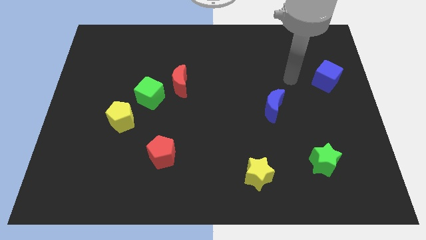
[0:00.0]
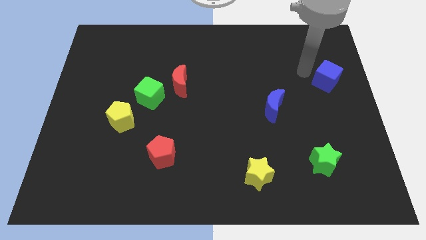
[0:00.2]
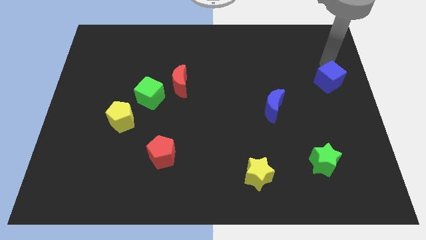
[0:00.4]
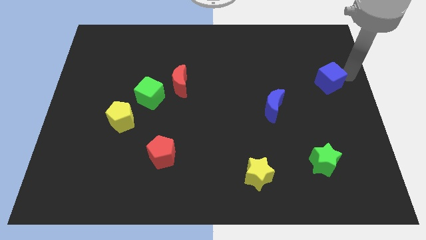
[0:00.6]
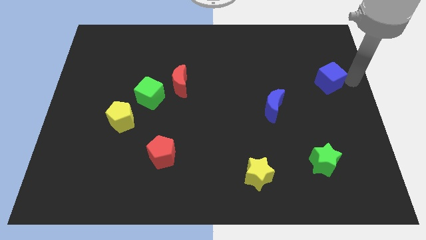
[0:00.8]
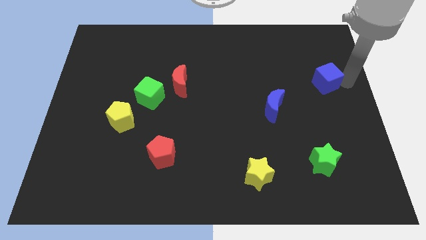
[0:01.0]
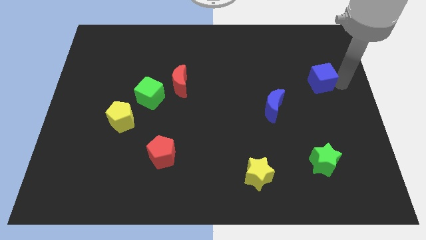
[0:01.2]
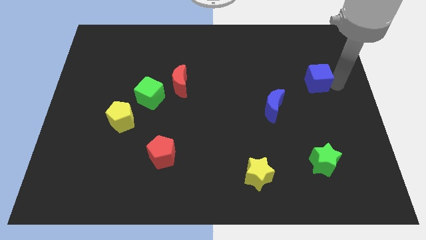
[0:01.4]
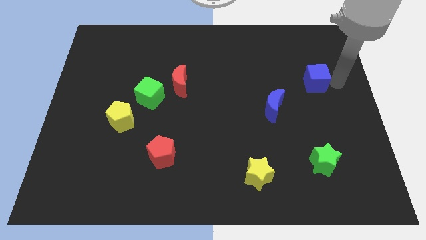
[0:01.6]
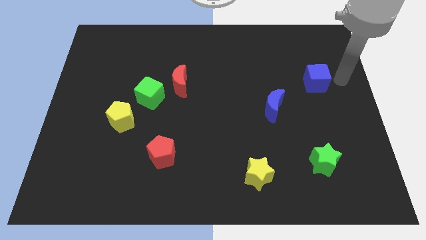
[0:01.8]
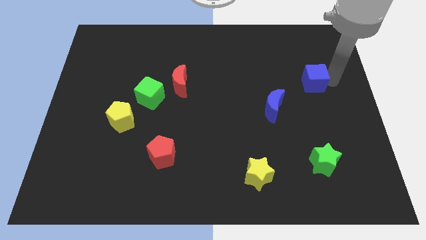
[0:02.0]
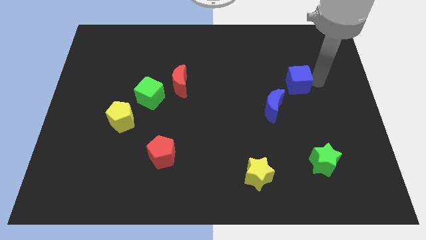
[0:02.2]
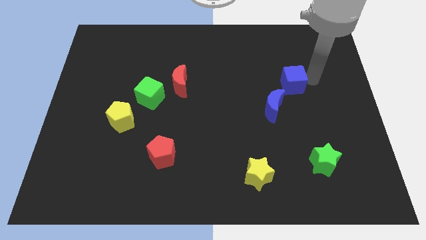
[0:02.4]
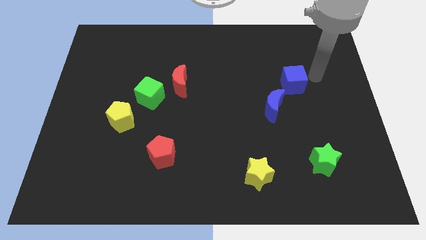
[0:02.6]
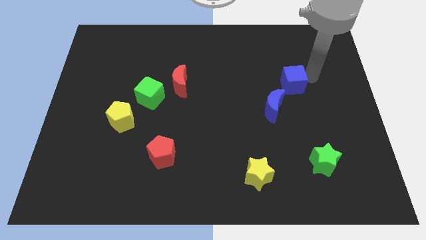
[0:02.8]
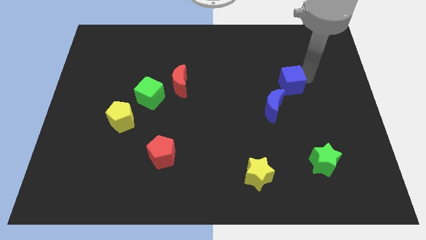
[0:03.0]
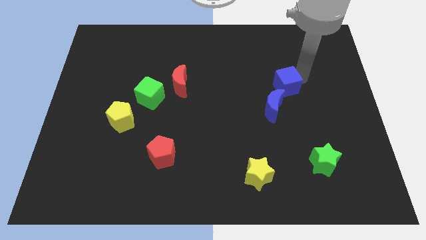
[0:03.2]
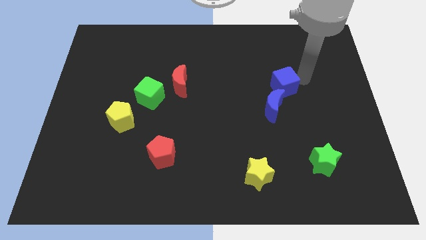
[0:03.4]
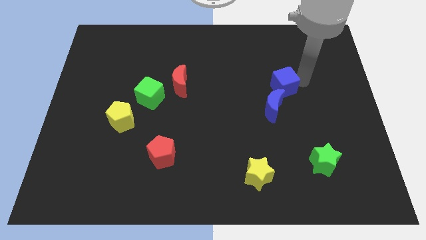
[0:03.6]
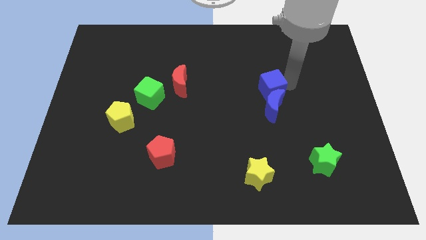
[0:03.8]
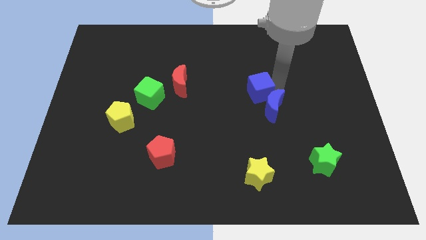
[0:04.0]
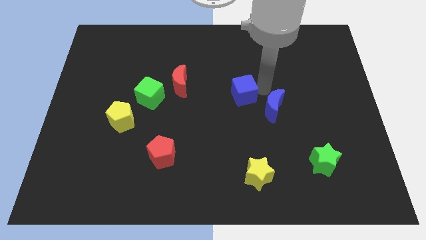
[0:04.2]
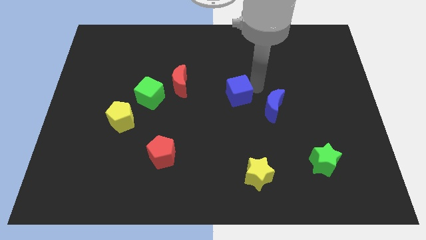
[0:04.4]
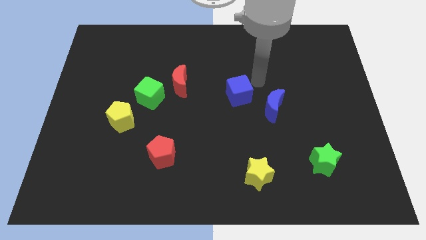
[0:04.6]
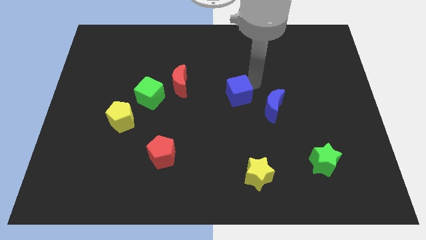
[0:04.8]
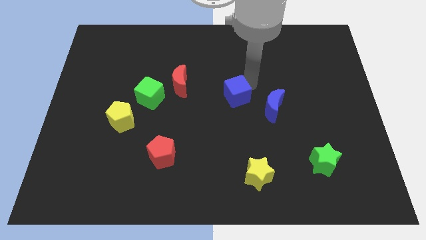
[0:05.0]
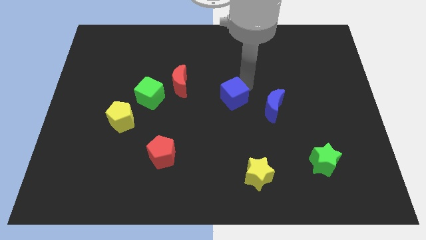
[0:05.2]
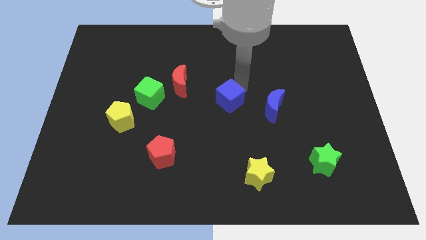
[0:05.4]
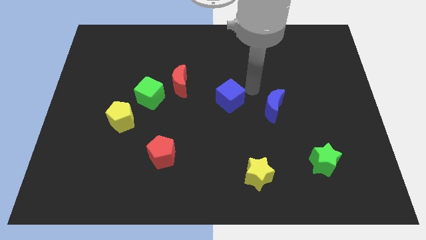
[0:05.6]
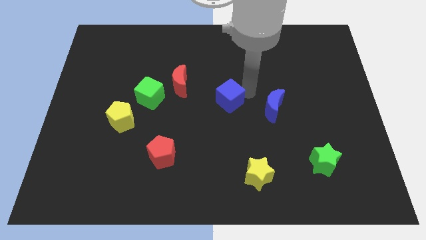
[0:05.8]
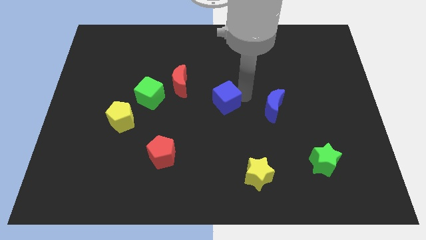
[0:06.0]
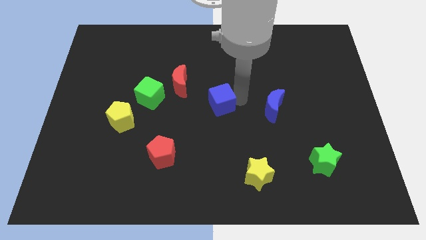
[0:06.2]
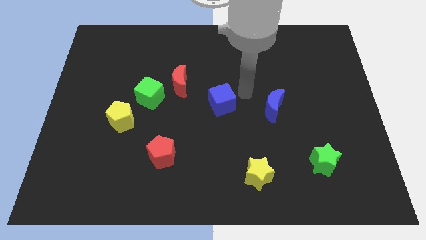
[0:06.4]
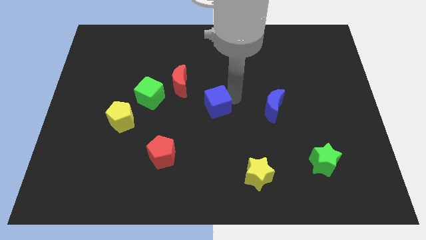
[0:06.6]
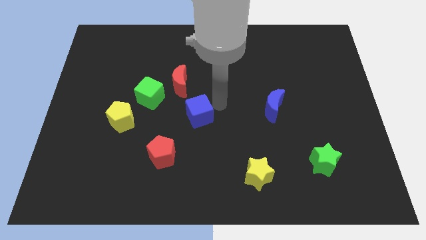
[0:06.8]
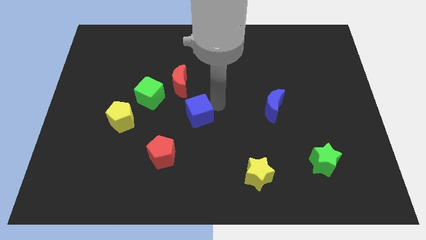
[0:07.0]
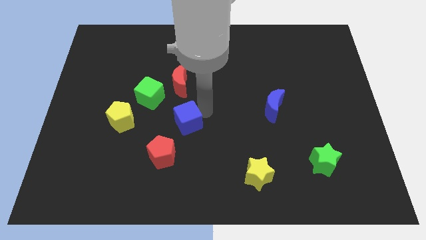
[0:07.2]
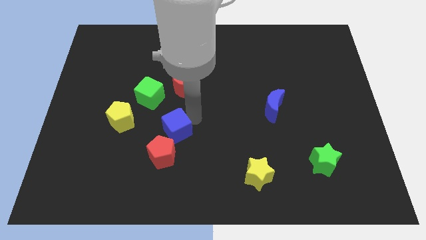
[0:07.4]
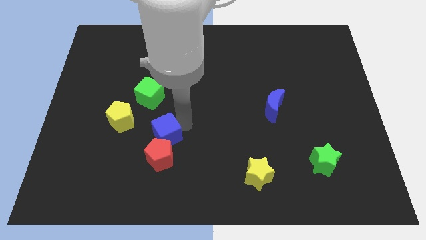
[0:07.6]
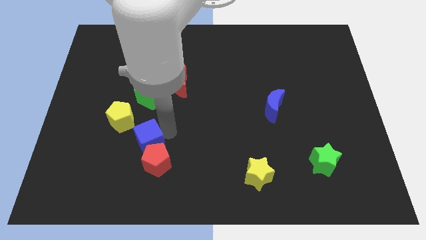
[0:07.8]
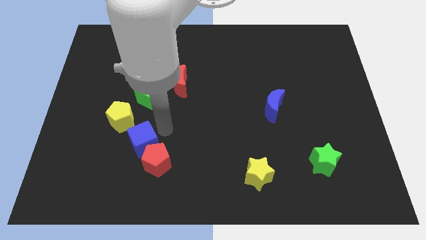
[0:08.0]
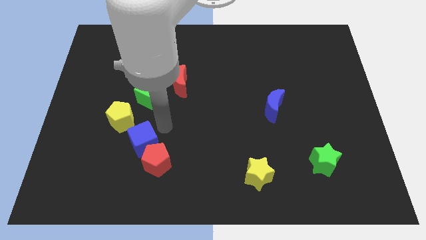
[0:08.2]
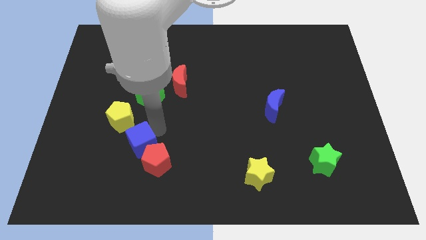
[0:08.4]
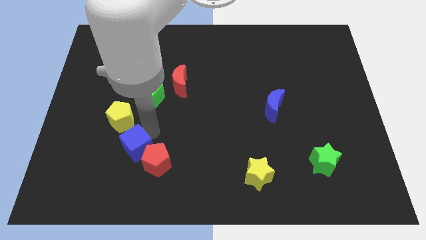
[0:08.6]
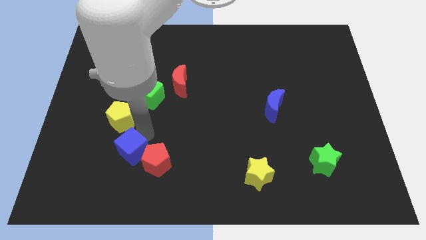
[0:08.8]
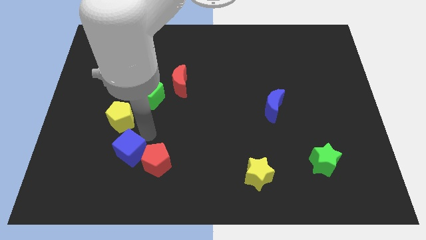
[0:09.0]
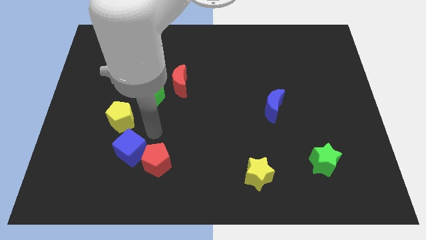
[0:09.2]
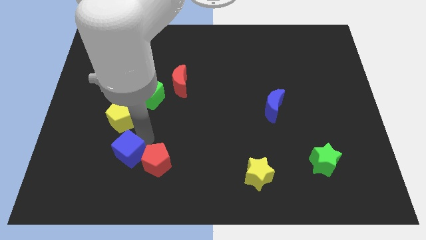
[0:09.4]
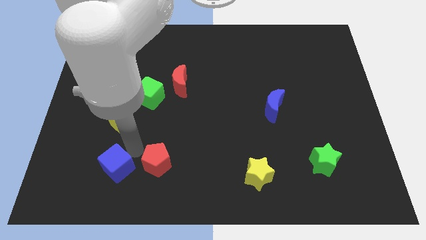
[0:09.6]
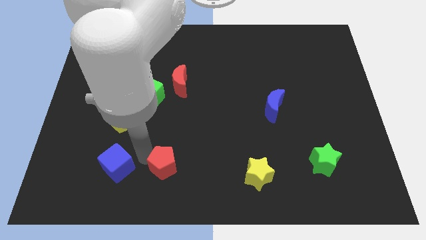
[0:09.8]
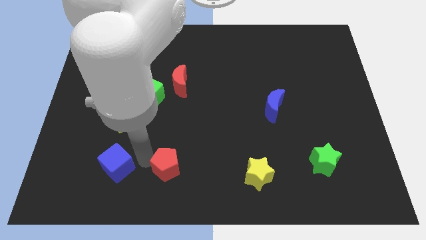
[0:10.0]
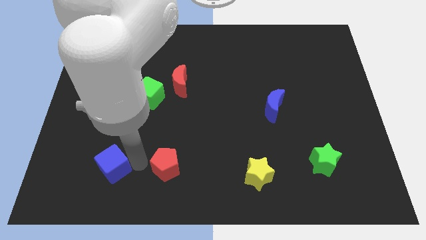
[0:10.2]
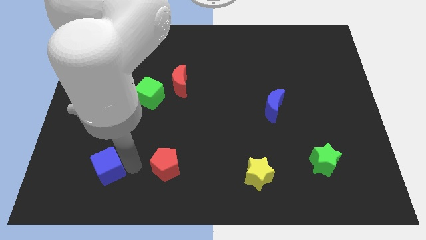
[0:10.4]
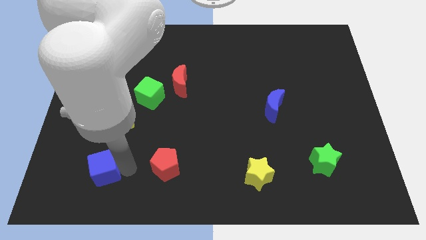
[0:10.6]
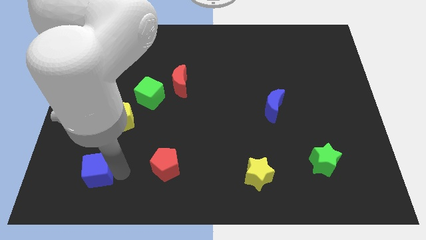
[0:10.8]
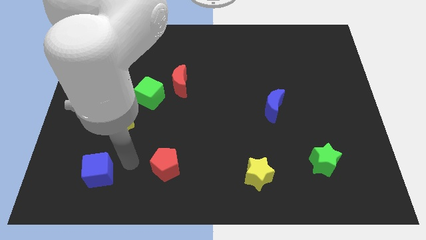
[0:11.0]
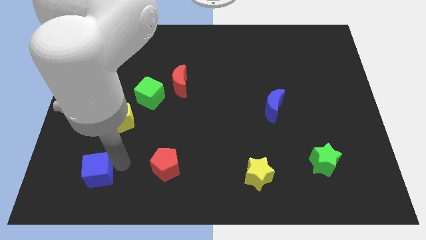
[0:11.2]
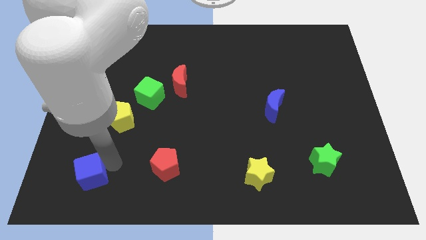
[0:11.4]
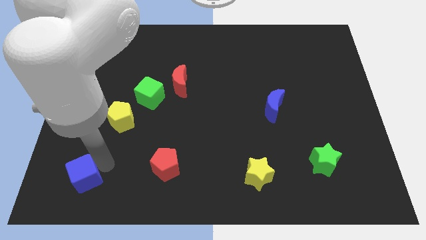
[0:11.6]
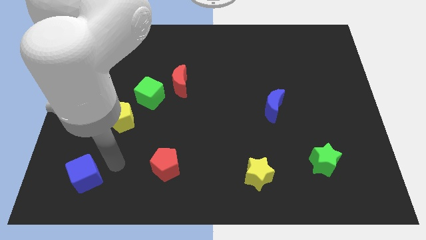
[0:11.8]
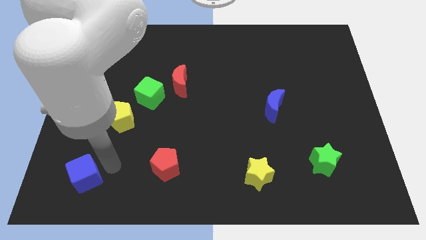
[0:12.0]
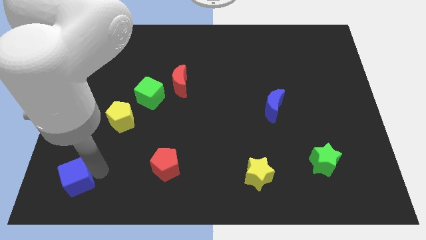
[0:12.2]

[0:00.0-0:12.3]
put the blue cube to the lower left corner

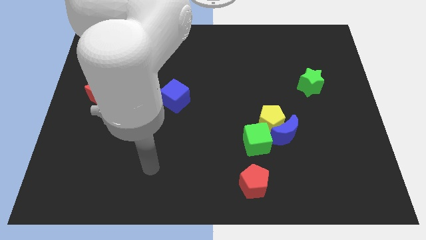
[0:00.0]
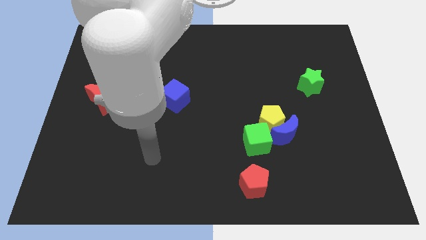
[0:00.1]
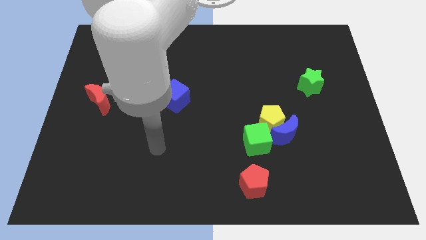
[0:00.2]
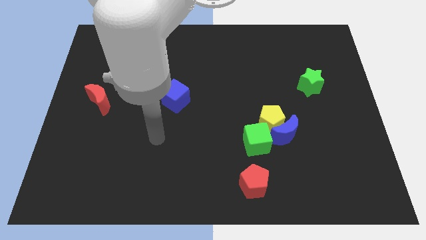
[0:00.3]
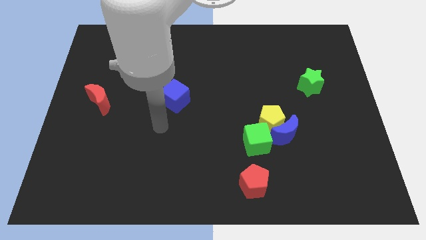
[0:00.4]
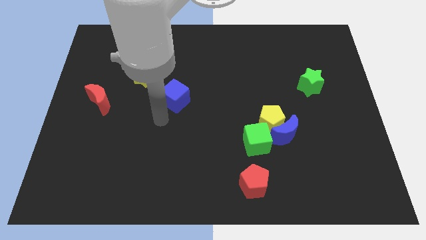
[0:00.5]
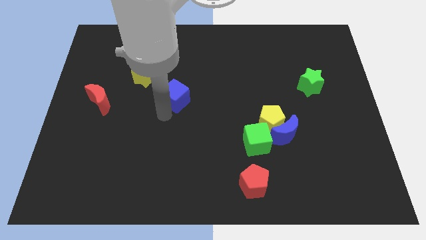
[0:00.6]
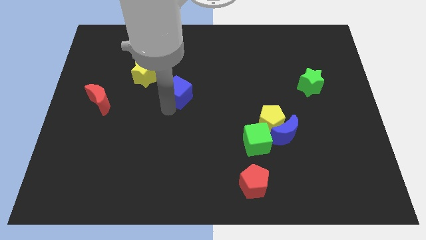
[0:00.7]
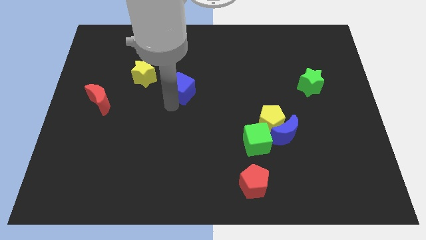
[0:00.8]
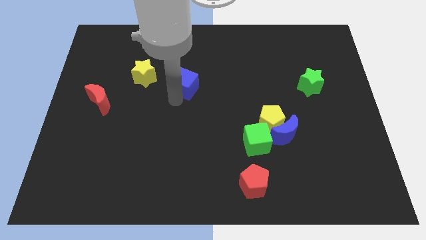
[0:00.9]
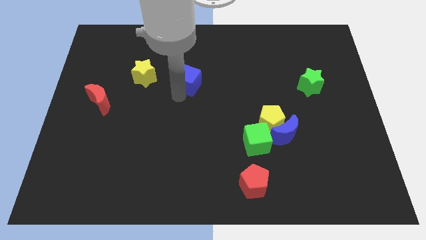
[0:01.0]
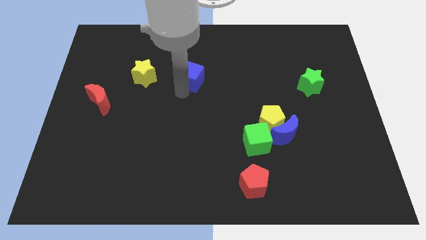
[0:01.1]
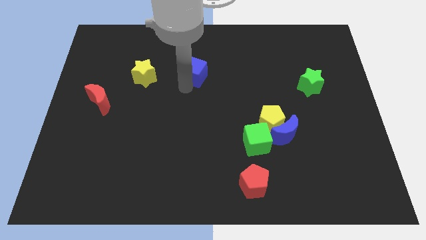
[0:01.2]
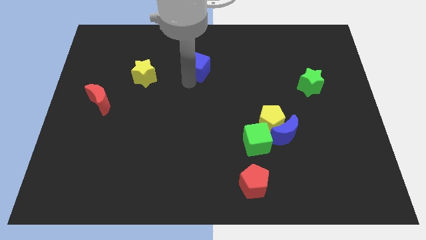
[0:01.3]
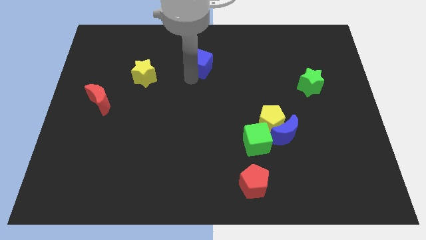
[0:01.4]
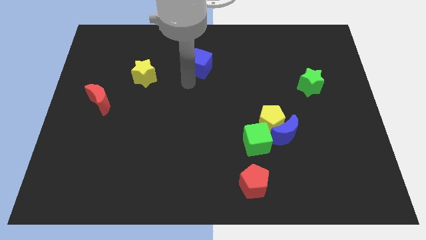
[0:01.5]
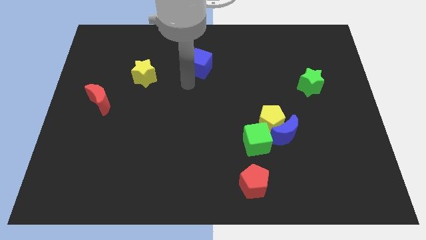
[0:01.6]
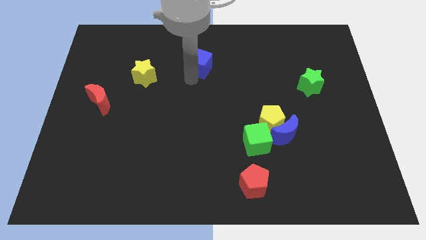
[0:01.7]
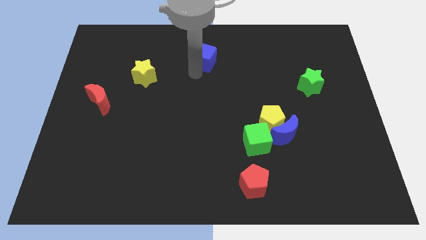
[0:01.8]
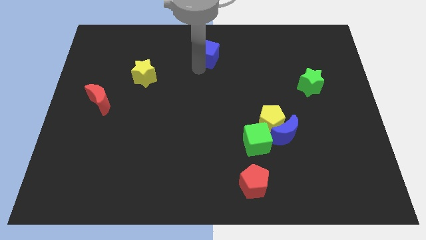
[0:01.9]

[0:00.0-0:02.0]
push the blue cube to the top
